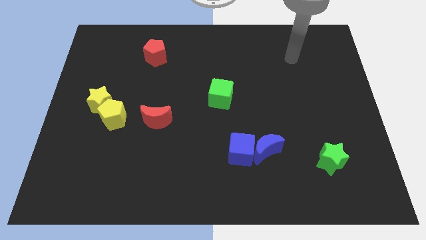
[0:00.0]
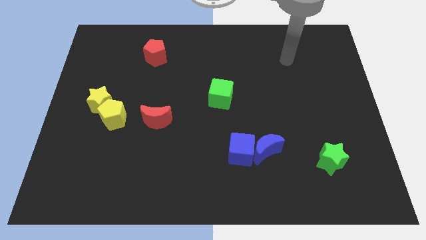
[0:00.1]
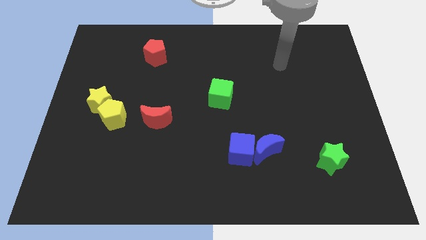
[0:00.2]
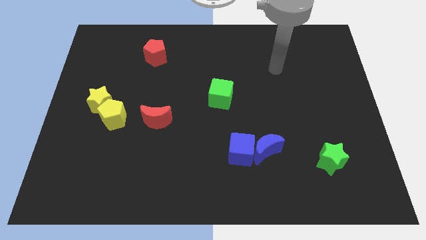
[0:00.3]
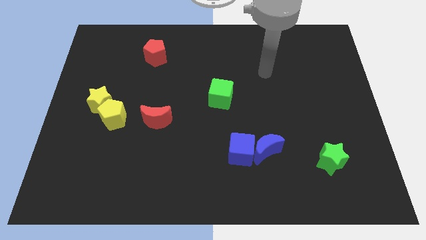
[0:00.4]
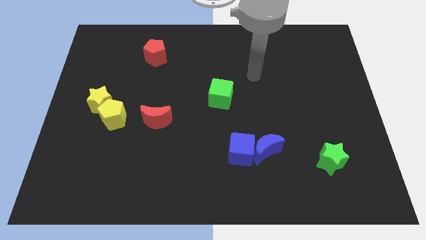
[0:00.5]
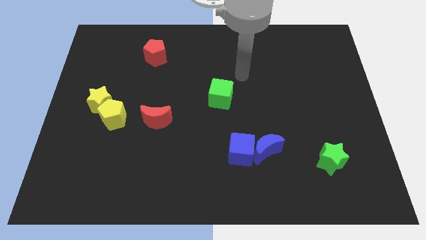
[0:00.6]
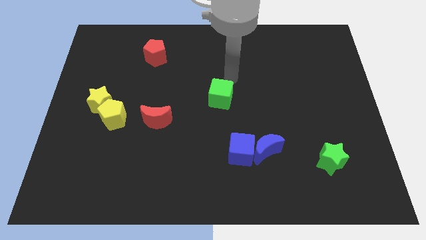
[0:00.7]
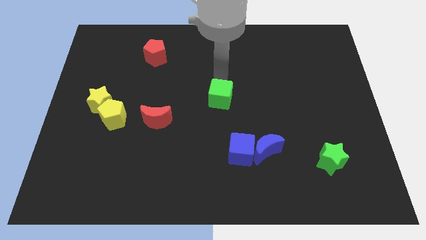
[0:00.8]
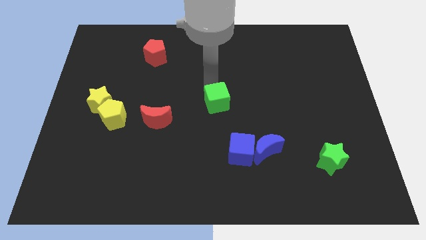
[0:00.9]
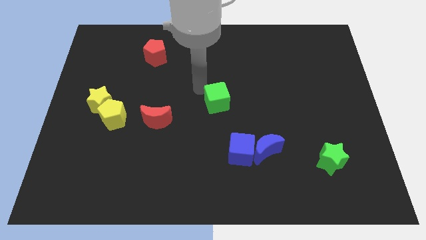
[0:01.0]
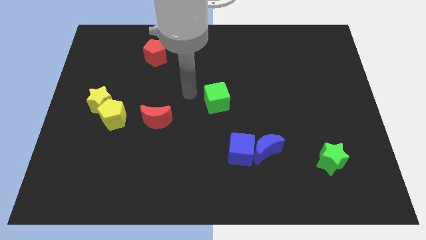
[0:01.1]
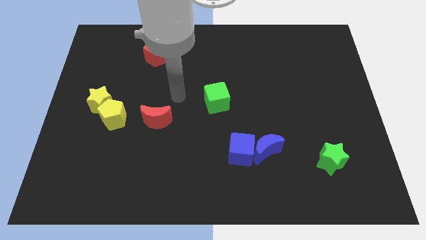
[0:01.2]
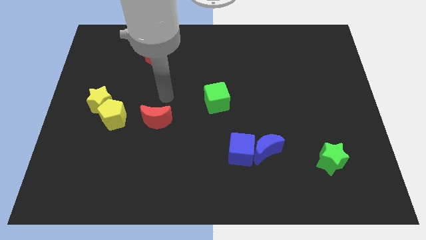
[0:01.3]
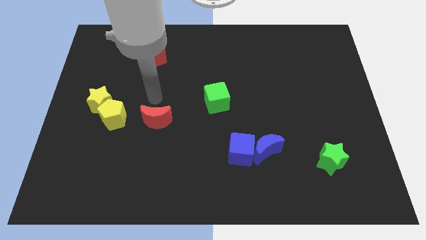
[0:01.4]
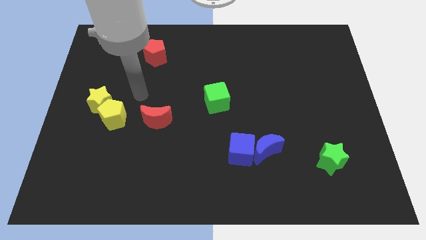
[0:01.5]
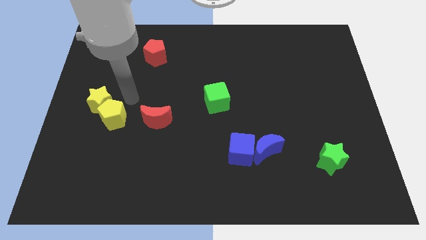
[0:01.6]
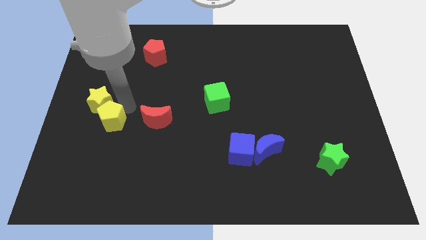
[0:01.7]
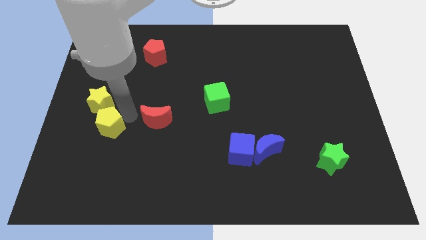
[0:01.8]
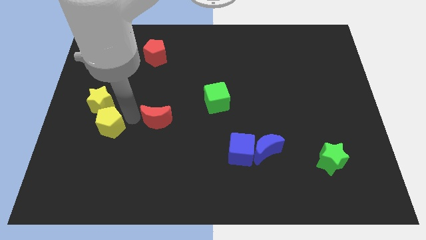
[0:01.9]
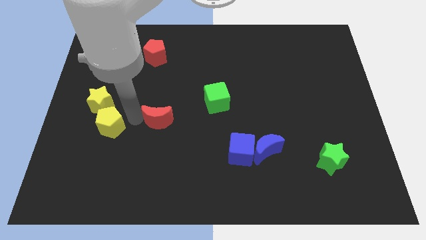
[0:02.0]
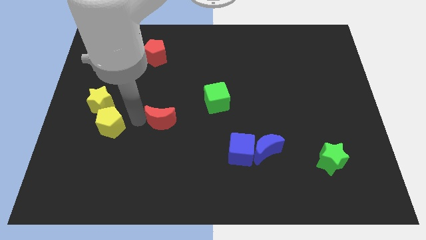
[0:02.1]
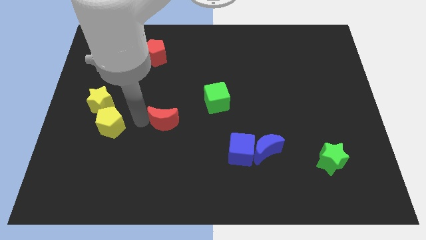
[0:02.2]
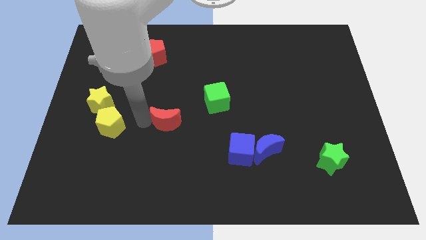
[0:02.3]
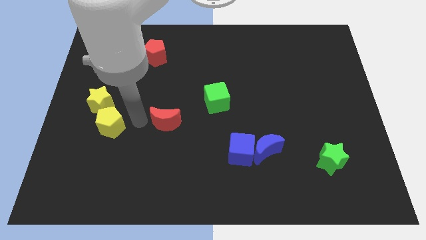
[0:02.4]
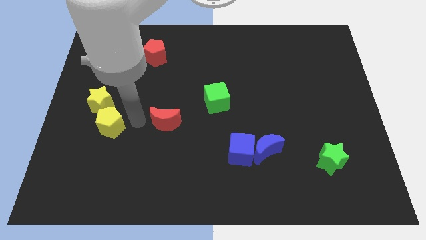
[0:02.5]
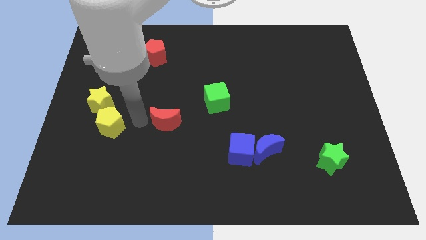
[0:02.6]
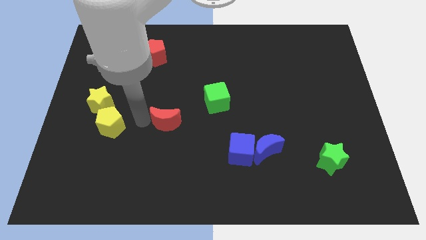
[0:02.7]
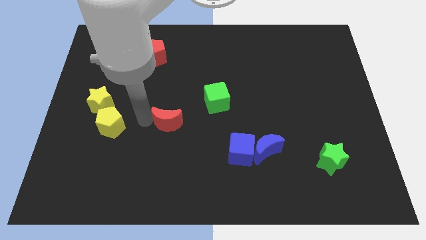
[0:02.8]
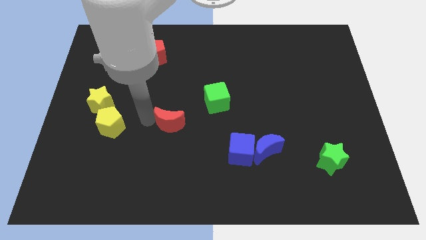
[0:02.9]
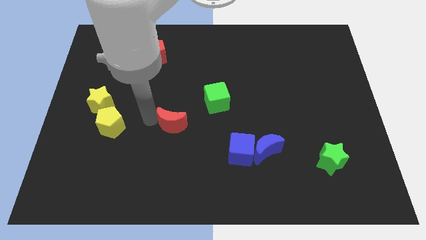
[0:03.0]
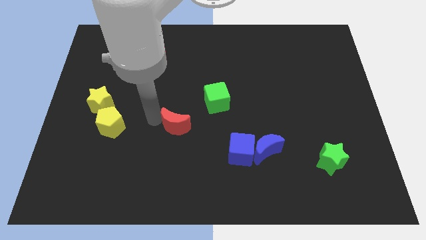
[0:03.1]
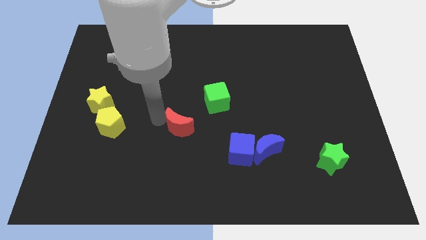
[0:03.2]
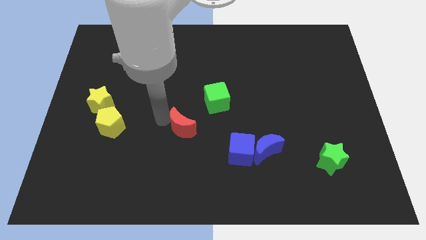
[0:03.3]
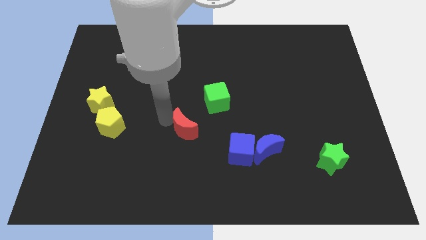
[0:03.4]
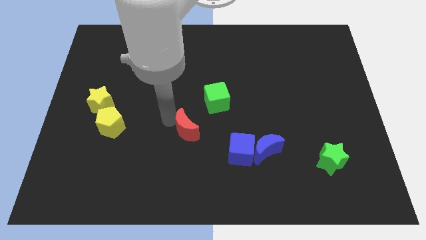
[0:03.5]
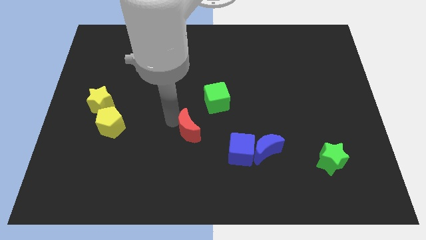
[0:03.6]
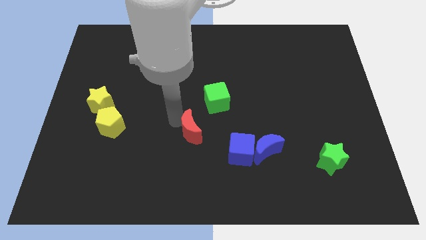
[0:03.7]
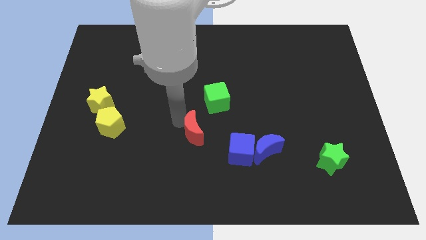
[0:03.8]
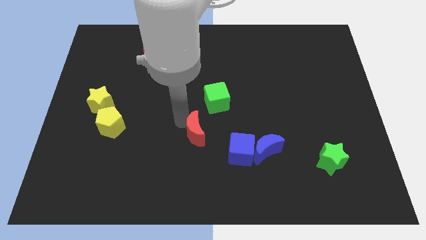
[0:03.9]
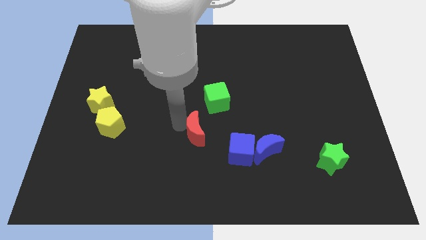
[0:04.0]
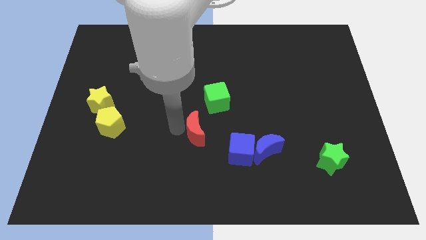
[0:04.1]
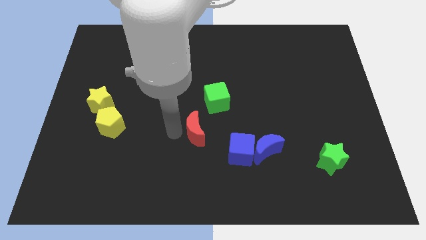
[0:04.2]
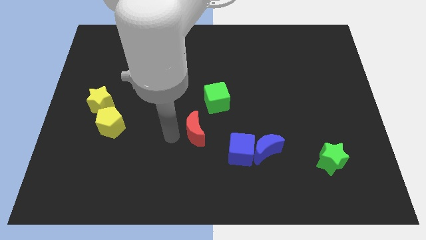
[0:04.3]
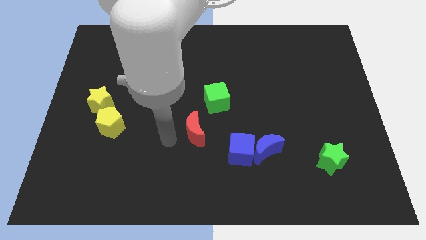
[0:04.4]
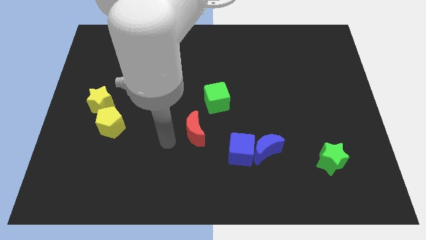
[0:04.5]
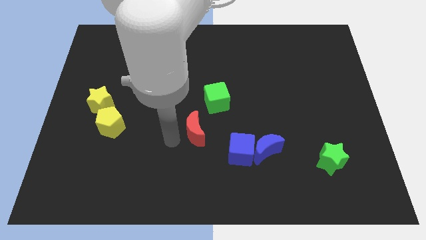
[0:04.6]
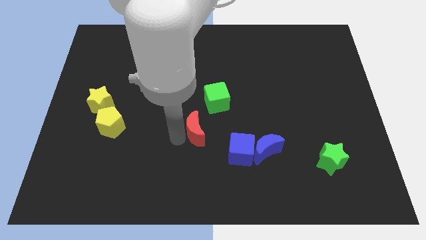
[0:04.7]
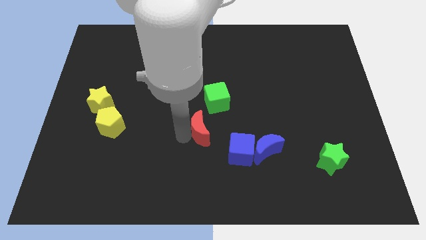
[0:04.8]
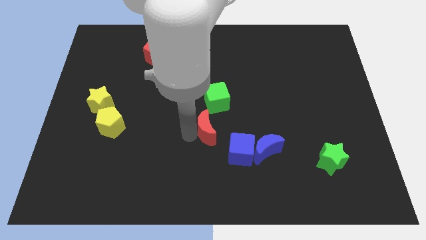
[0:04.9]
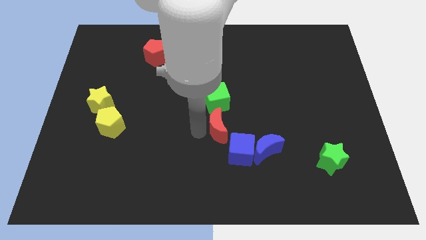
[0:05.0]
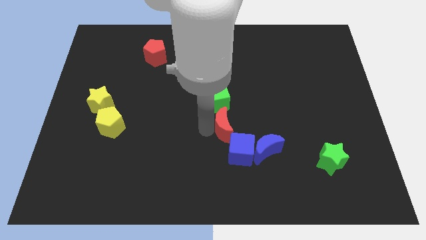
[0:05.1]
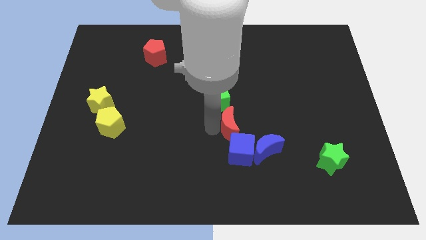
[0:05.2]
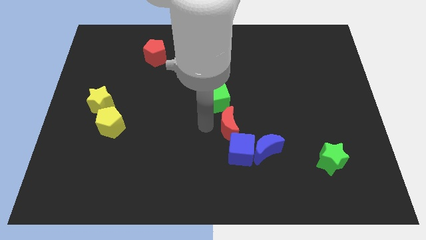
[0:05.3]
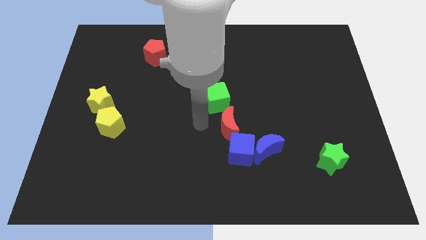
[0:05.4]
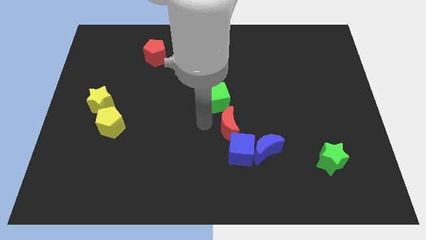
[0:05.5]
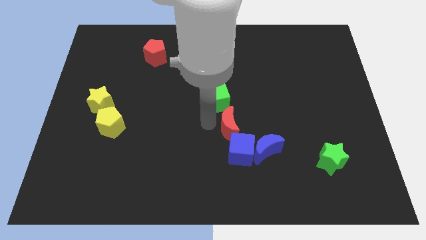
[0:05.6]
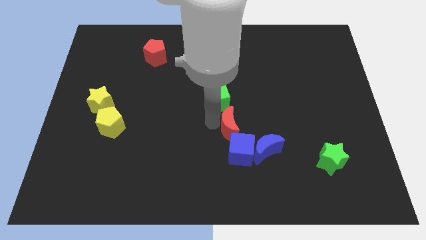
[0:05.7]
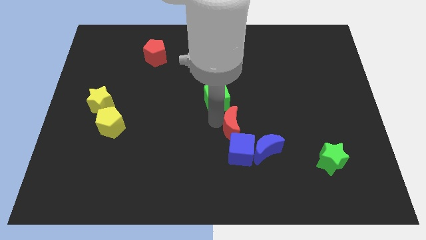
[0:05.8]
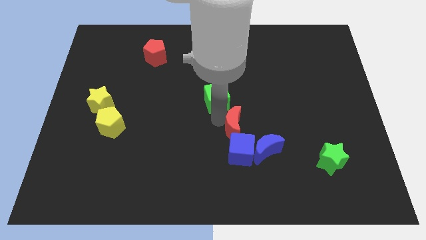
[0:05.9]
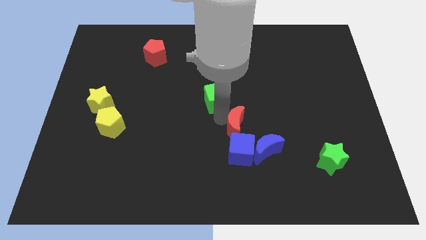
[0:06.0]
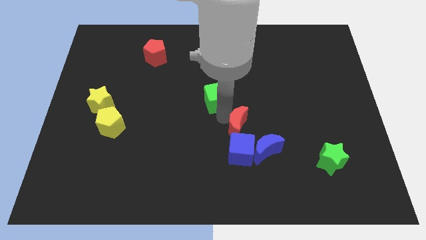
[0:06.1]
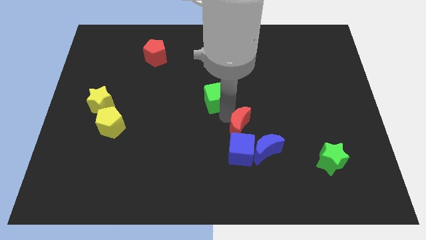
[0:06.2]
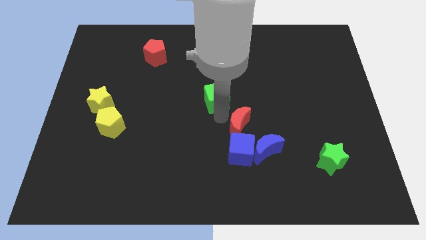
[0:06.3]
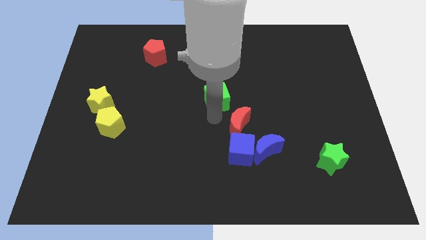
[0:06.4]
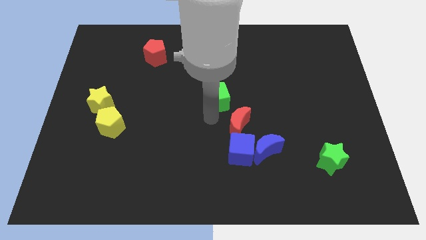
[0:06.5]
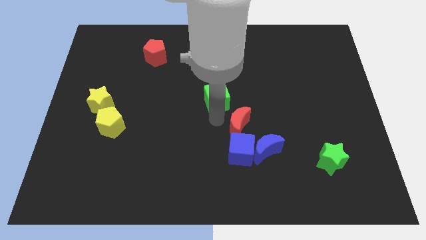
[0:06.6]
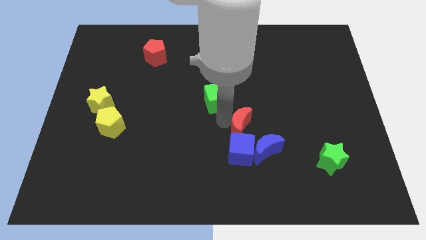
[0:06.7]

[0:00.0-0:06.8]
move the red moon to the top right of the blue cube
